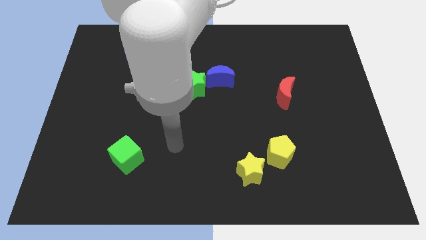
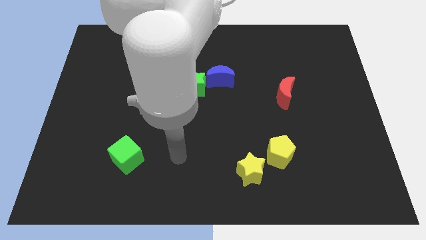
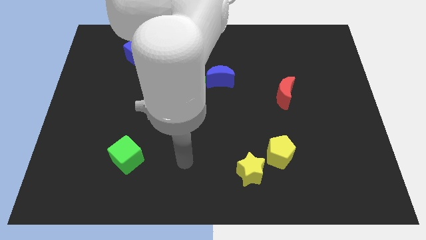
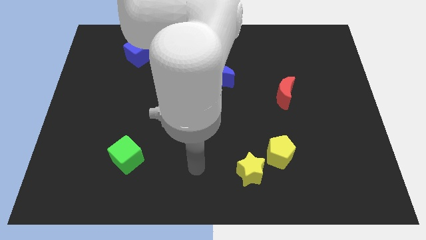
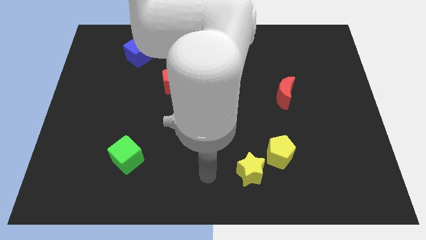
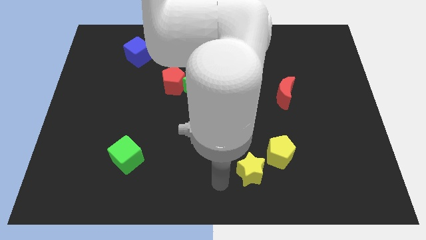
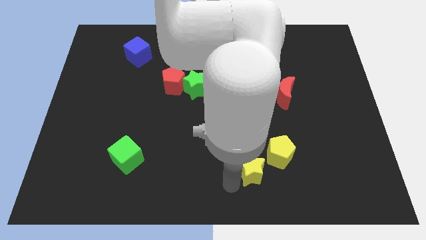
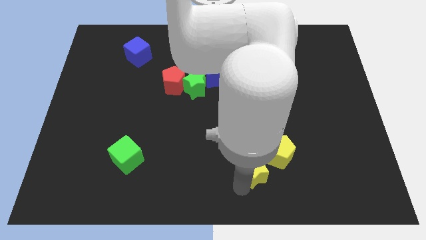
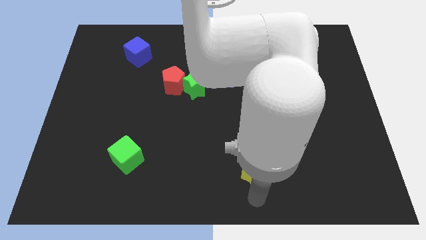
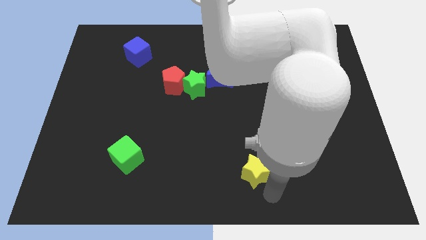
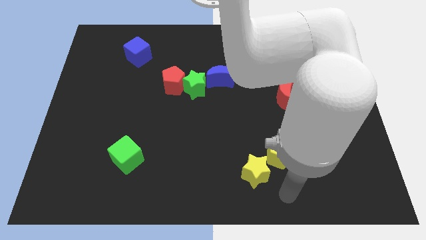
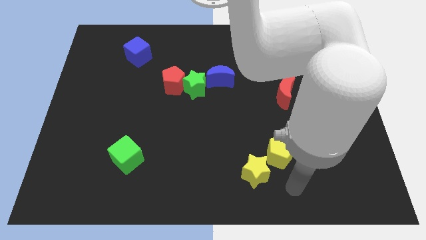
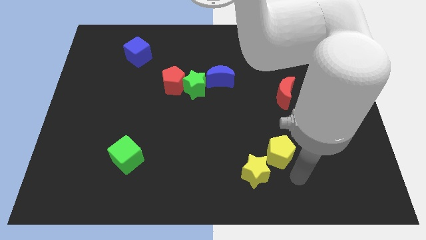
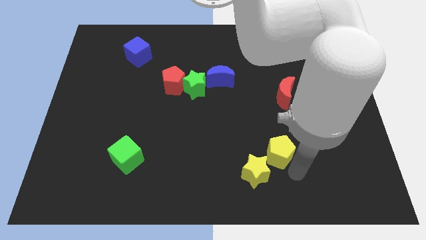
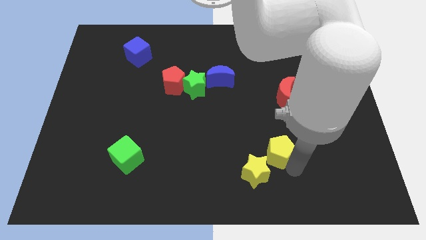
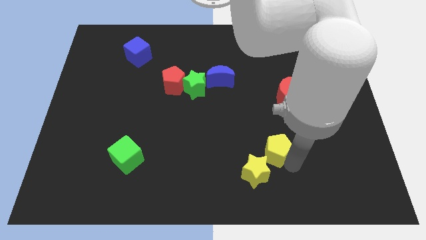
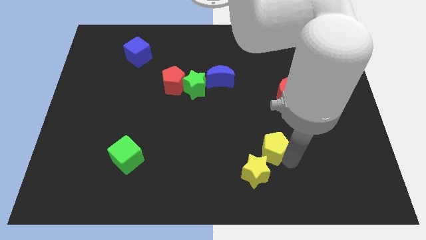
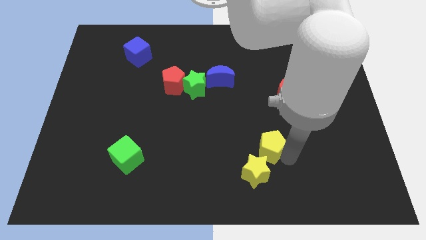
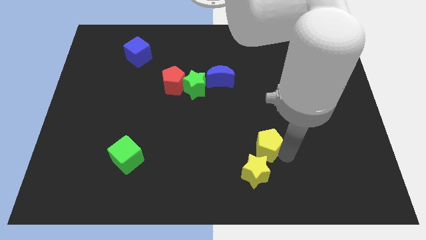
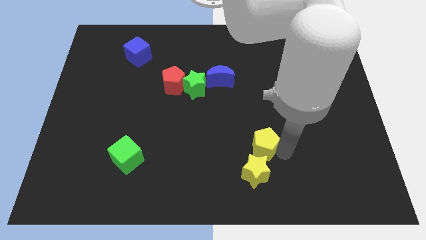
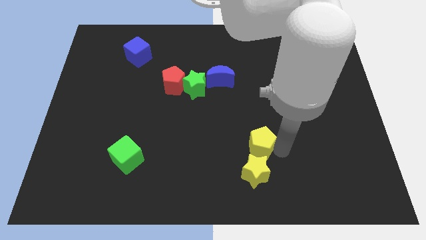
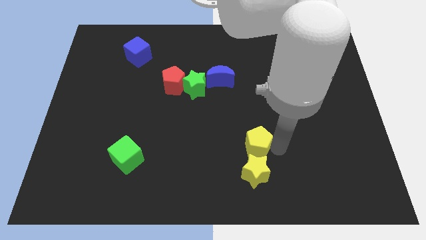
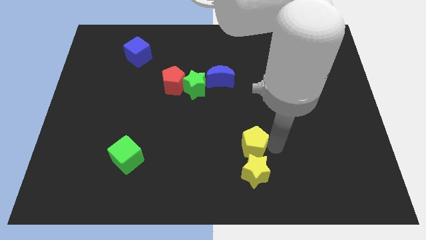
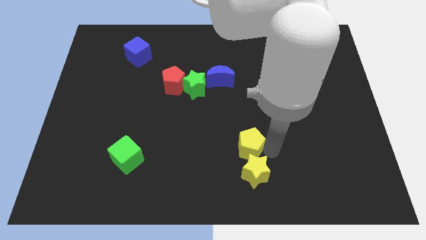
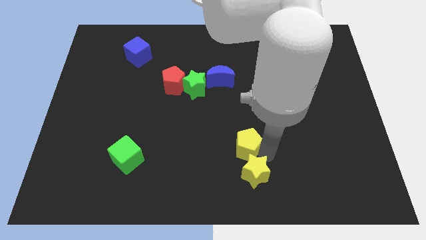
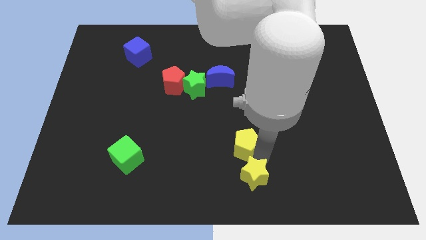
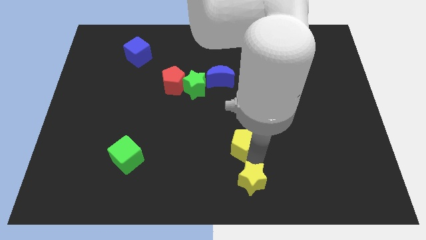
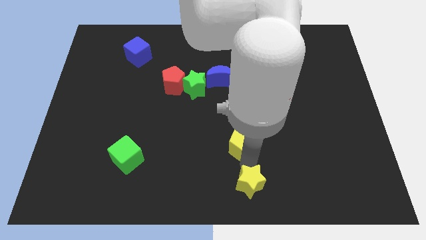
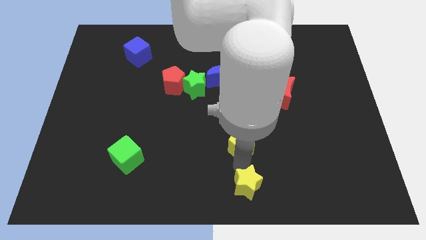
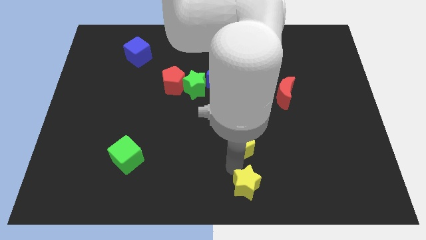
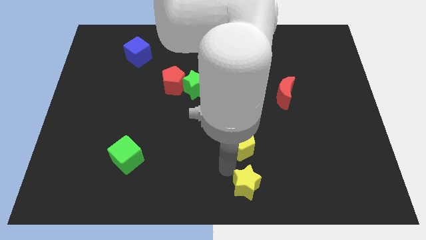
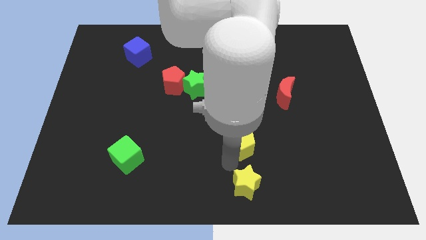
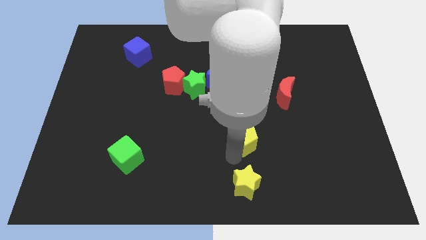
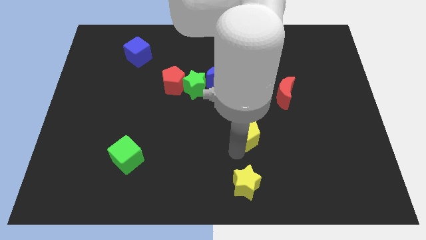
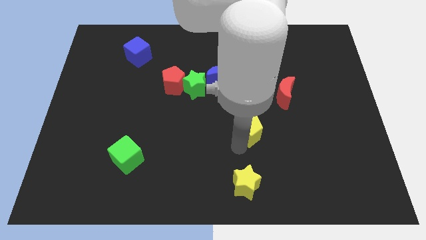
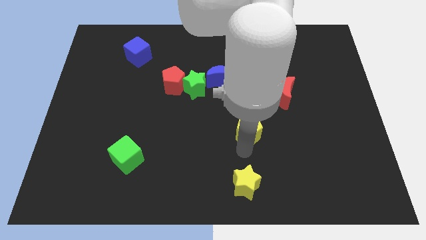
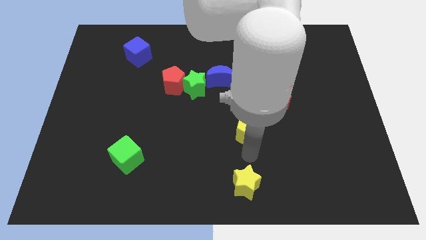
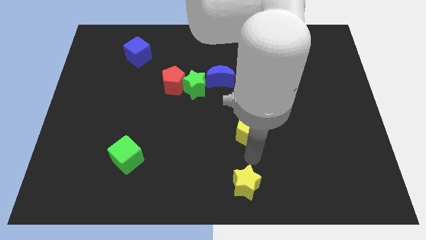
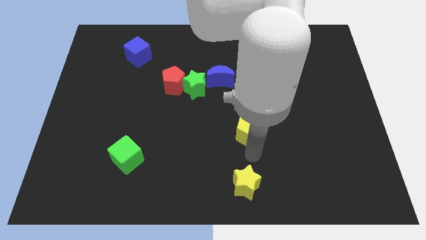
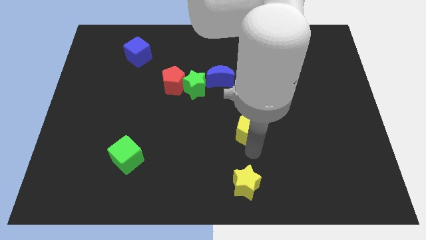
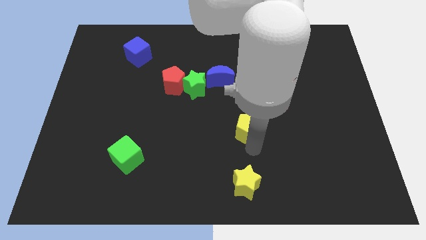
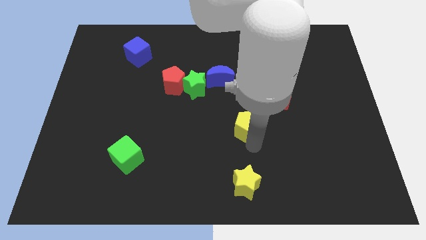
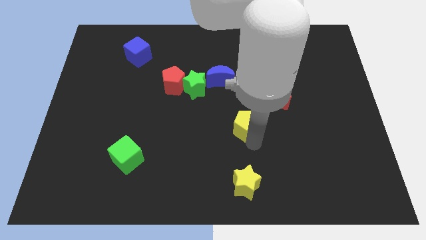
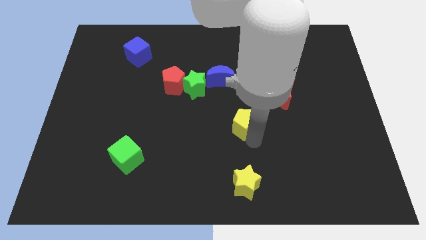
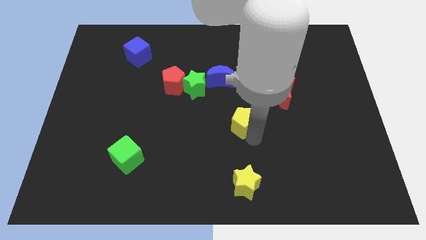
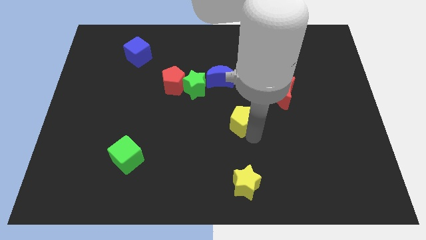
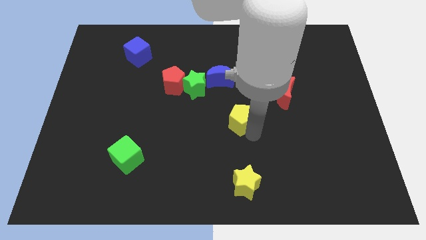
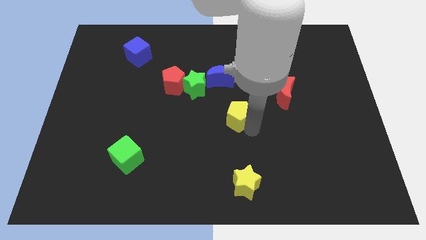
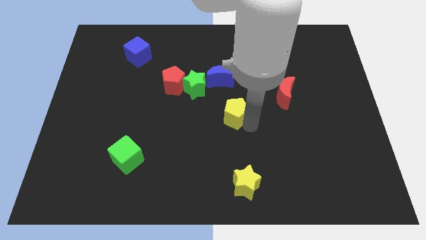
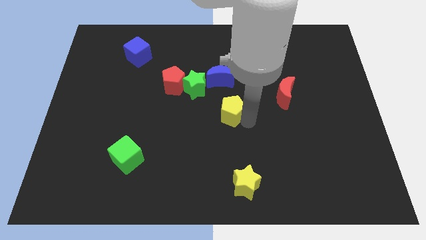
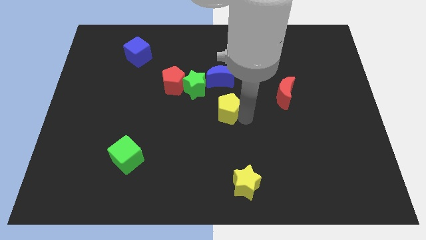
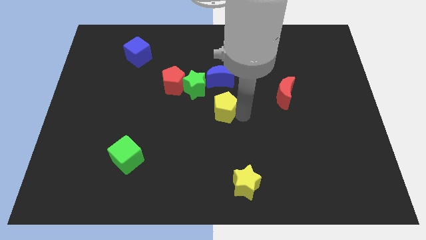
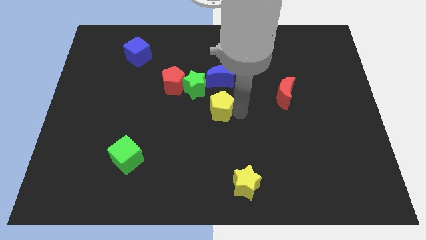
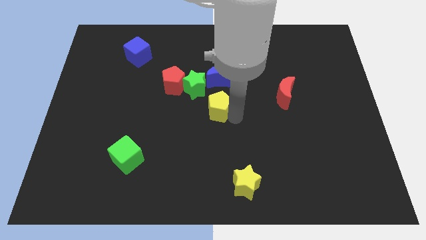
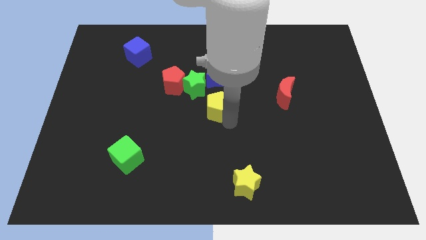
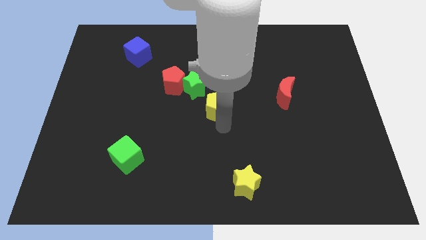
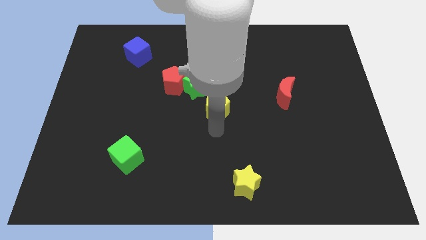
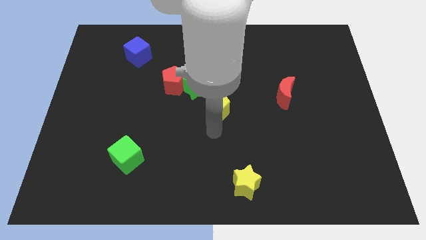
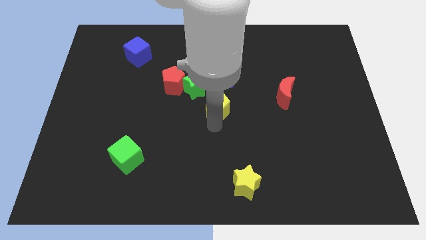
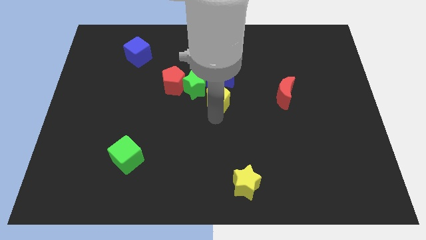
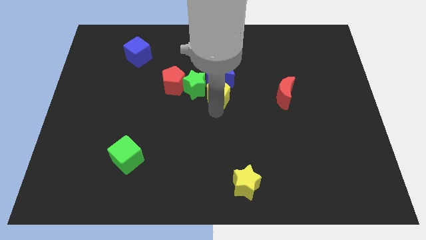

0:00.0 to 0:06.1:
move the yellow pentagon towards the blue moon

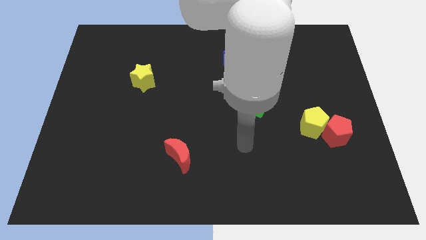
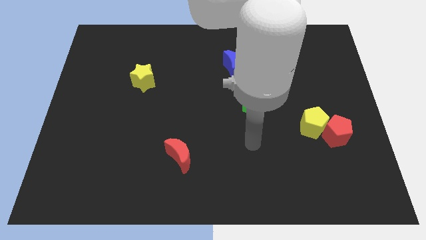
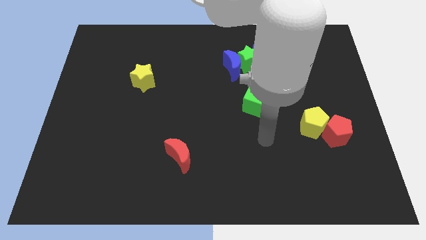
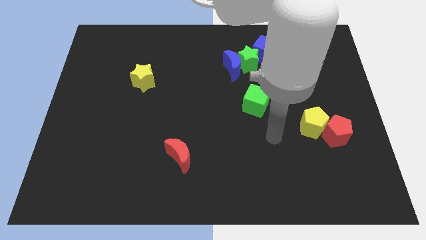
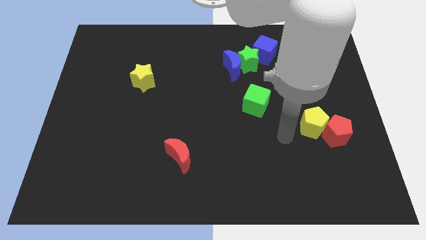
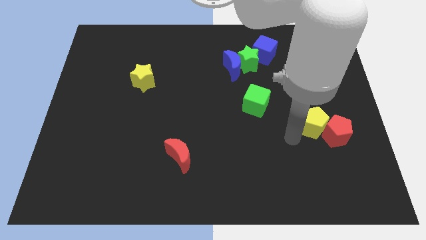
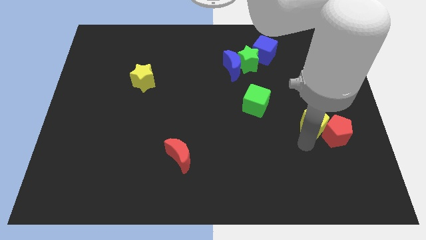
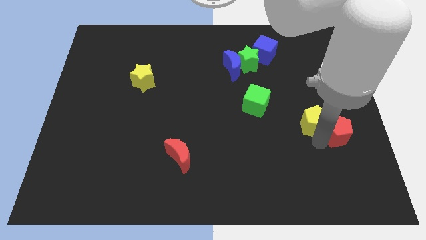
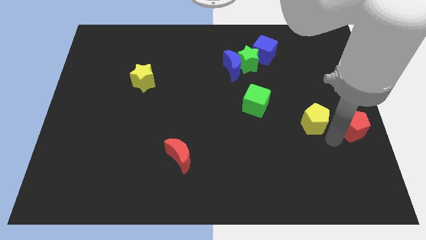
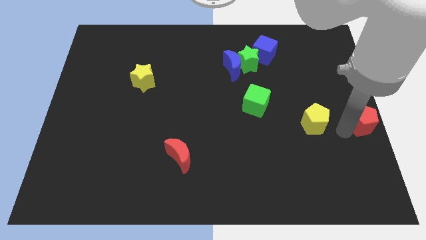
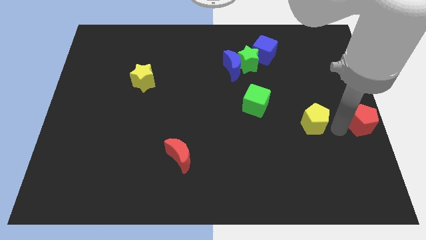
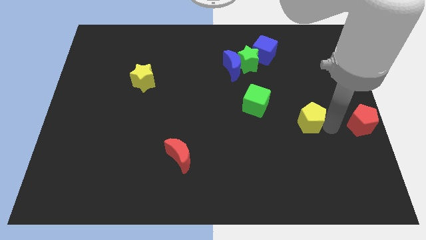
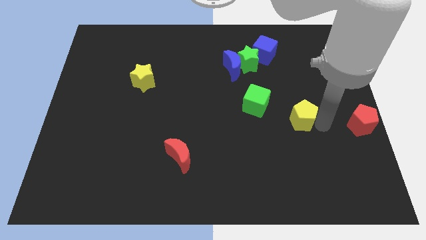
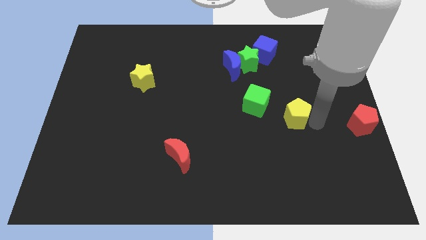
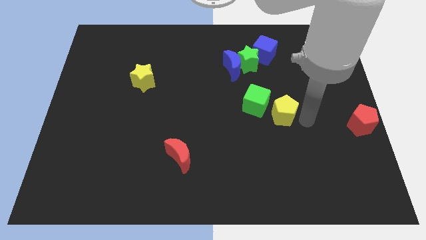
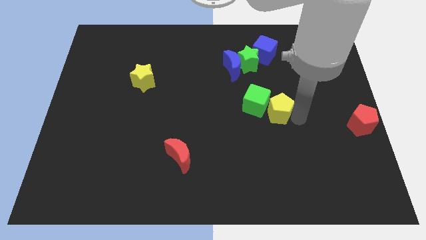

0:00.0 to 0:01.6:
slide the yellow pentagon next to the green cube

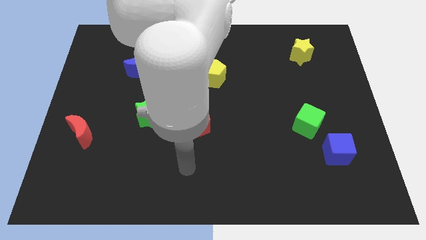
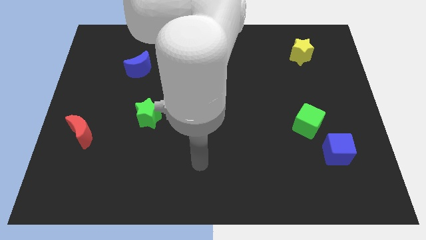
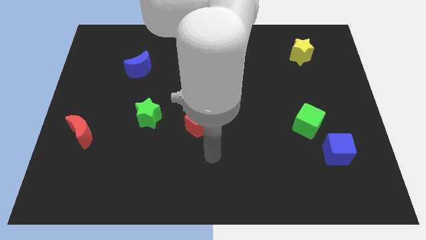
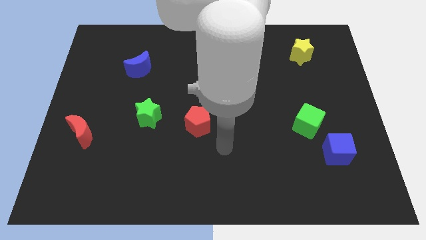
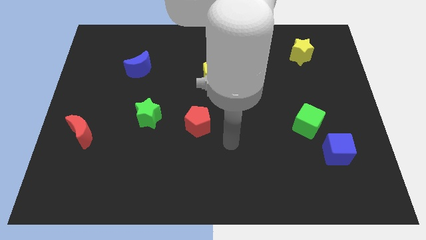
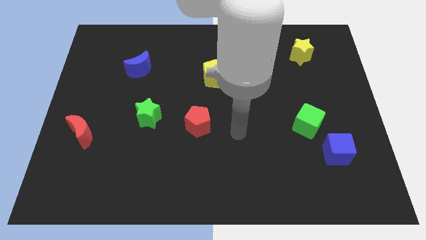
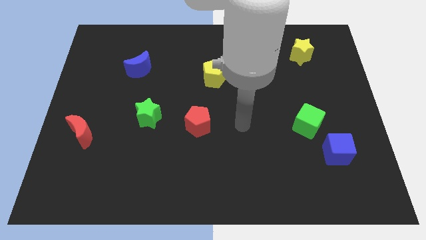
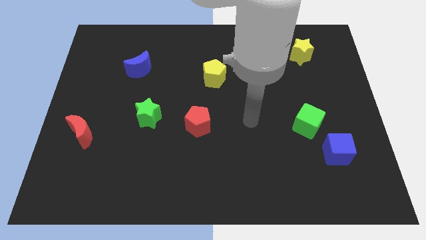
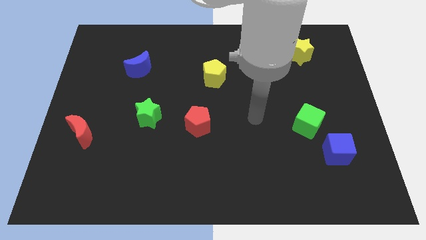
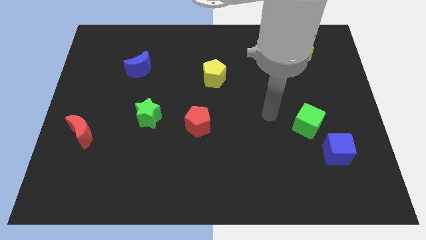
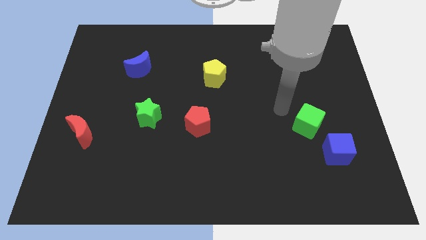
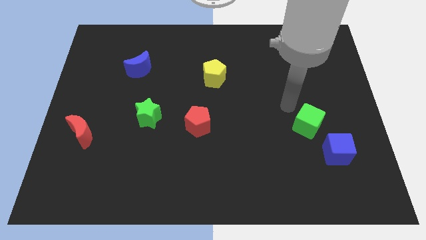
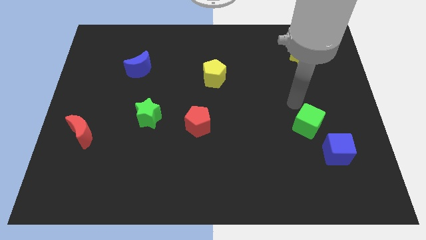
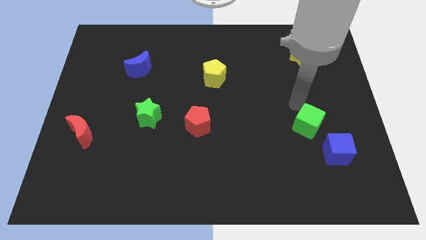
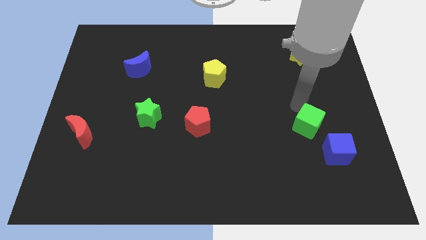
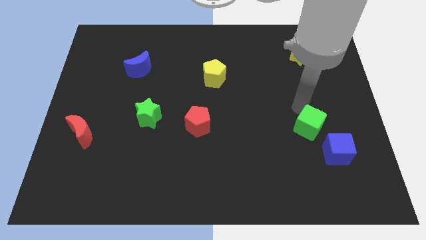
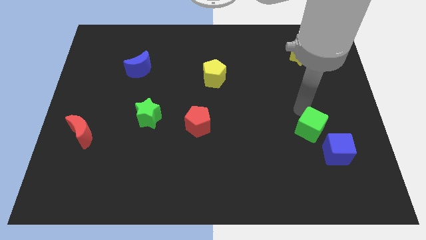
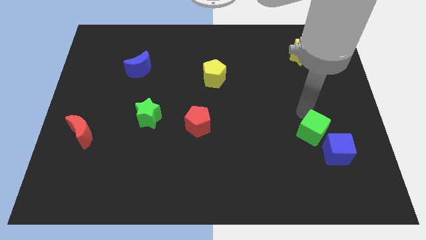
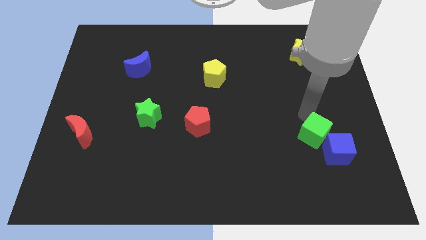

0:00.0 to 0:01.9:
slide the green cube towards the blue cube
